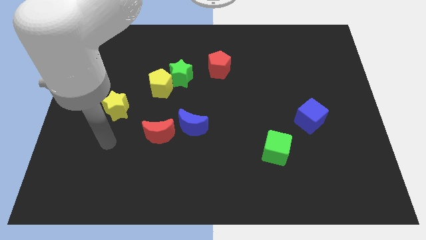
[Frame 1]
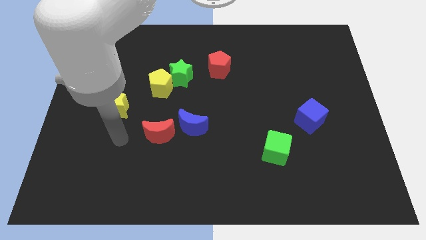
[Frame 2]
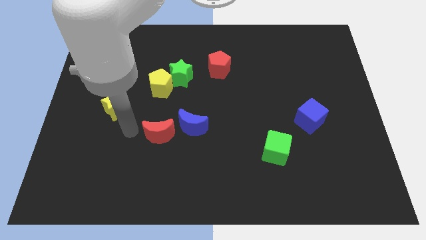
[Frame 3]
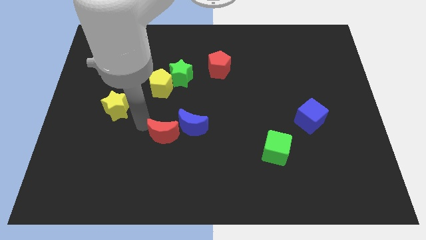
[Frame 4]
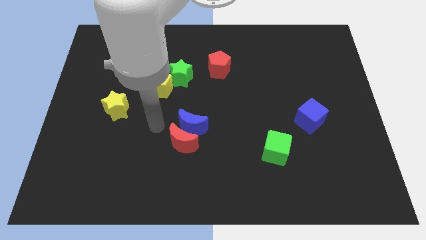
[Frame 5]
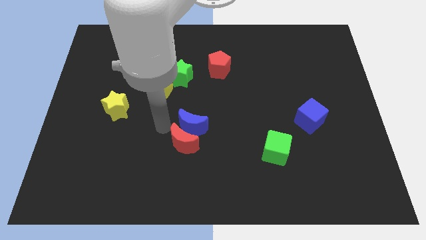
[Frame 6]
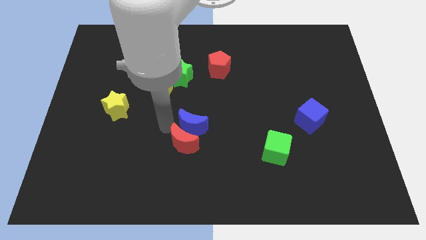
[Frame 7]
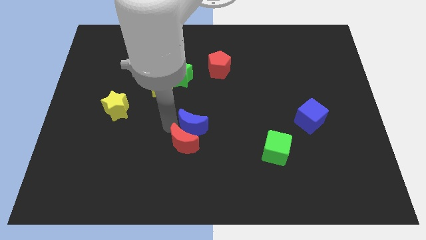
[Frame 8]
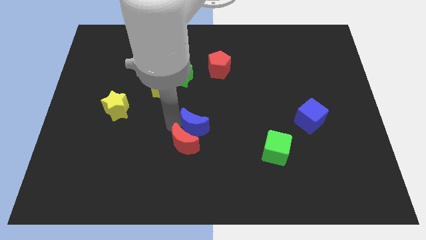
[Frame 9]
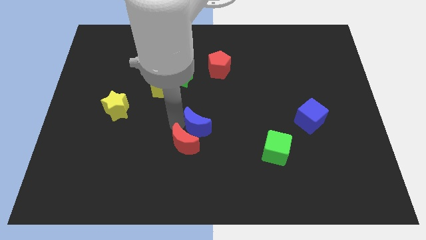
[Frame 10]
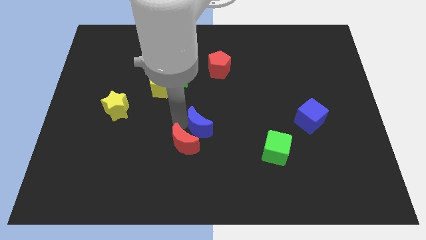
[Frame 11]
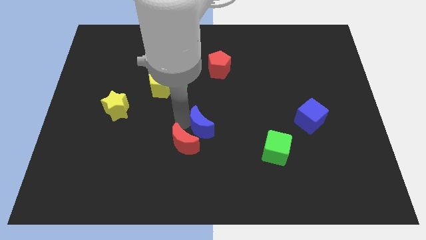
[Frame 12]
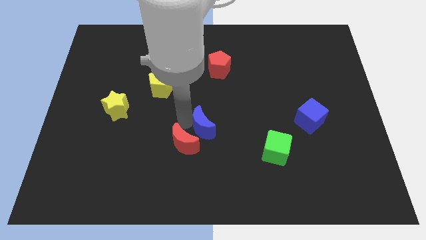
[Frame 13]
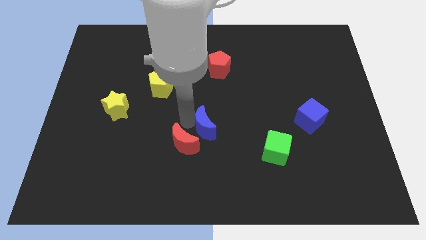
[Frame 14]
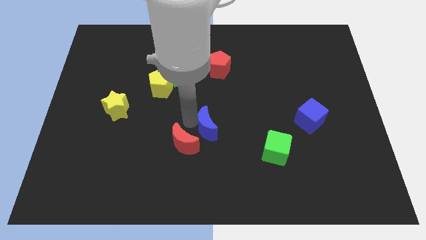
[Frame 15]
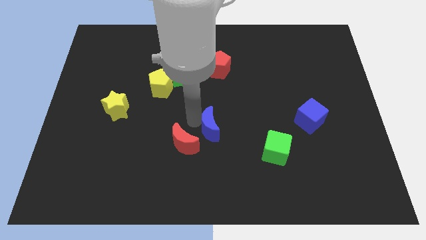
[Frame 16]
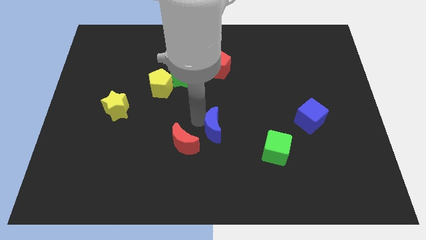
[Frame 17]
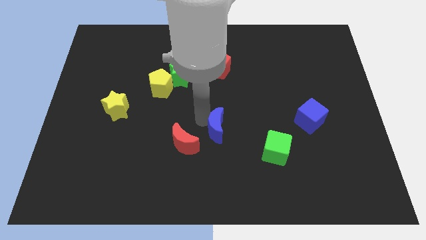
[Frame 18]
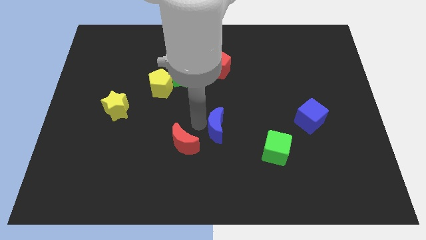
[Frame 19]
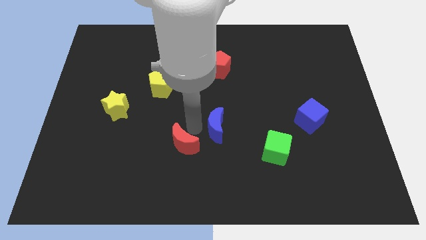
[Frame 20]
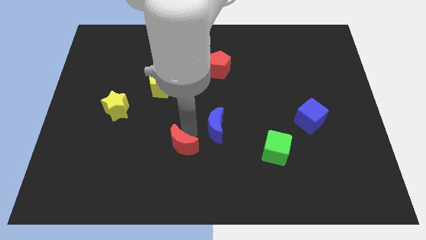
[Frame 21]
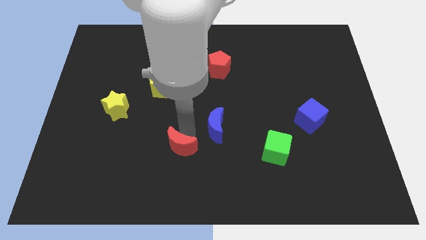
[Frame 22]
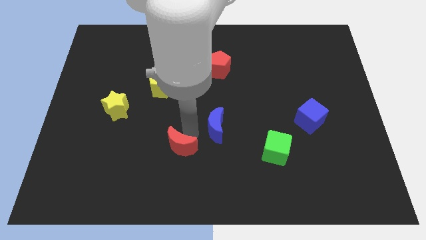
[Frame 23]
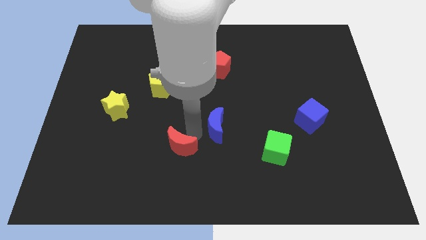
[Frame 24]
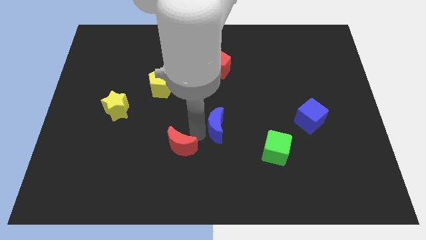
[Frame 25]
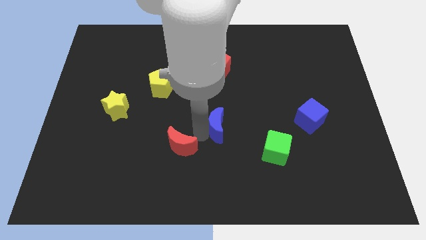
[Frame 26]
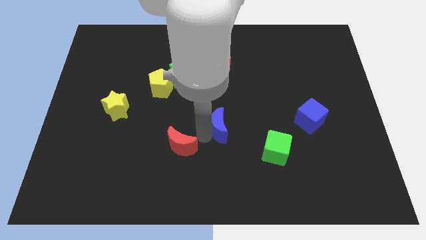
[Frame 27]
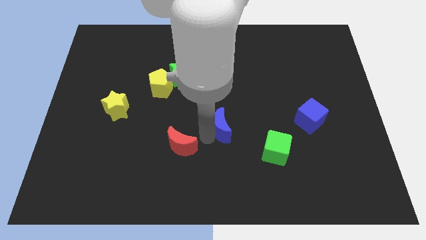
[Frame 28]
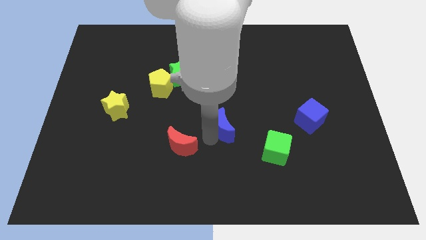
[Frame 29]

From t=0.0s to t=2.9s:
move the blue moon a little right

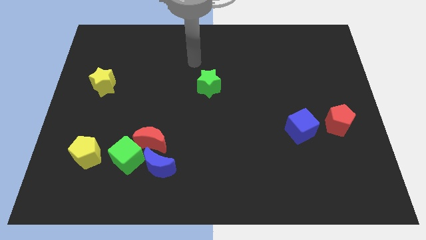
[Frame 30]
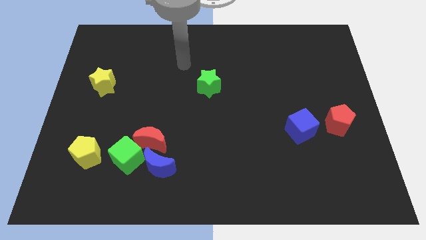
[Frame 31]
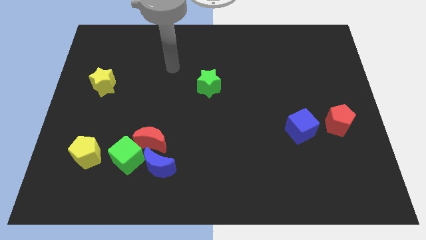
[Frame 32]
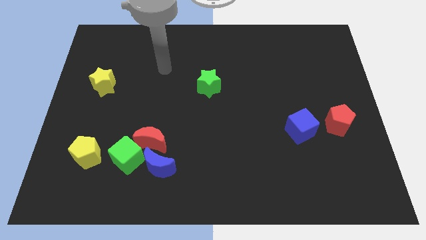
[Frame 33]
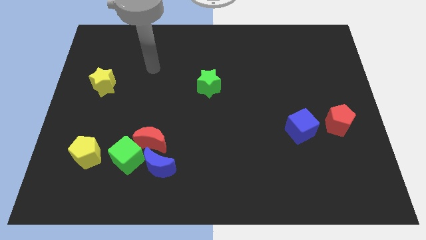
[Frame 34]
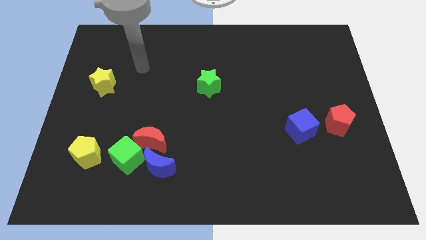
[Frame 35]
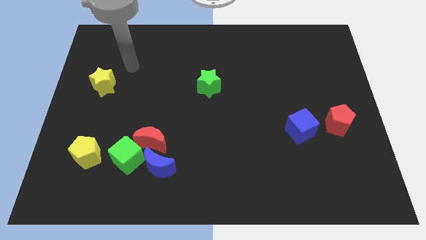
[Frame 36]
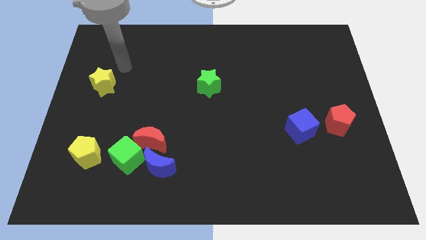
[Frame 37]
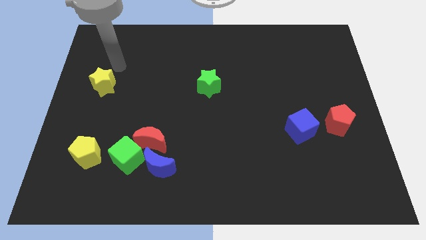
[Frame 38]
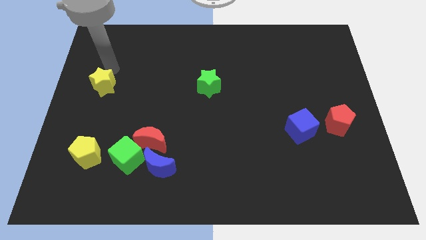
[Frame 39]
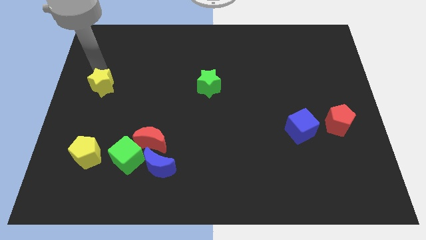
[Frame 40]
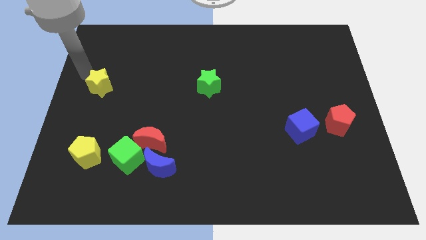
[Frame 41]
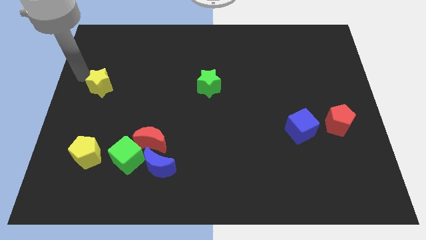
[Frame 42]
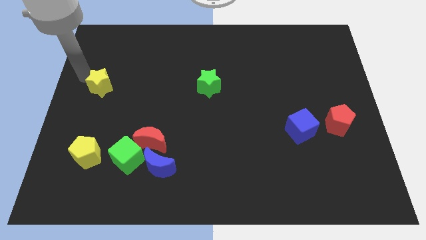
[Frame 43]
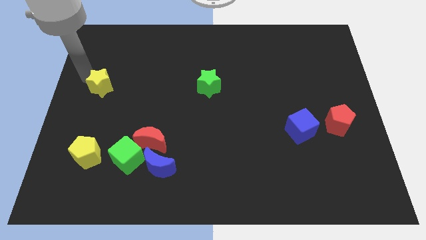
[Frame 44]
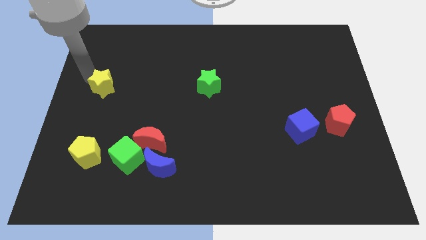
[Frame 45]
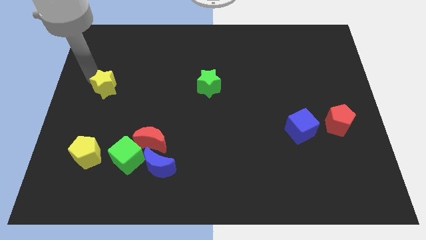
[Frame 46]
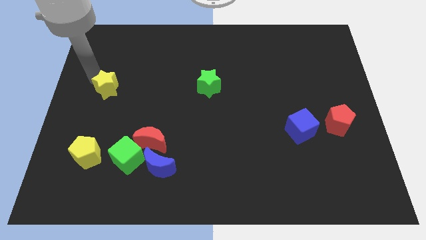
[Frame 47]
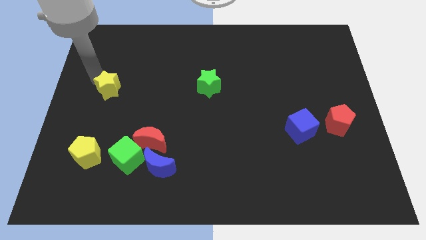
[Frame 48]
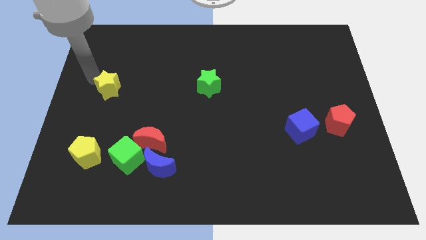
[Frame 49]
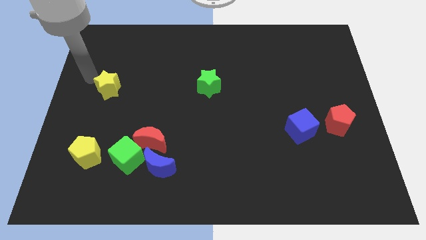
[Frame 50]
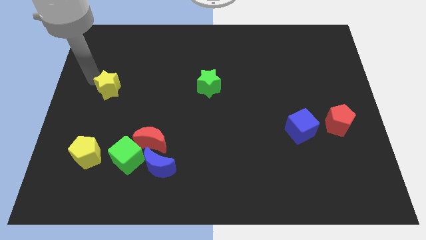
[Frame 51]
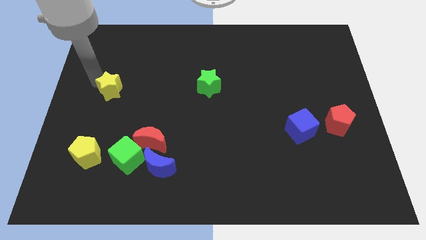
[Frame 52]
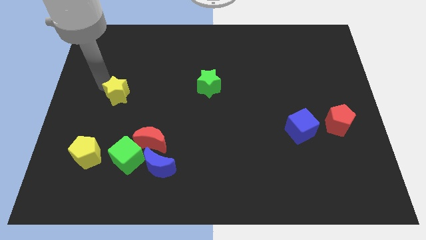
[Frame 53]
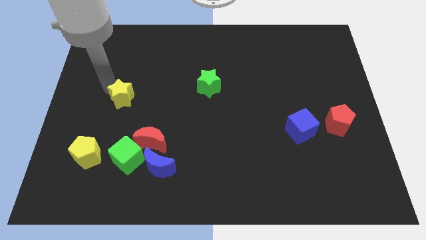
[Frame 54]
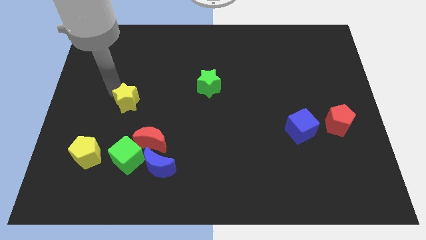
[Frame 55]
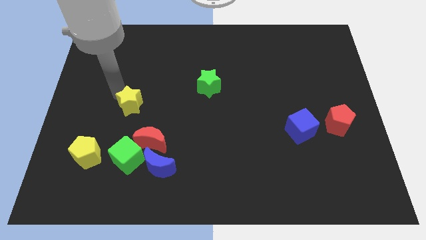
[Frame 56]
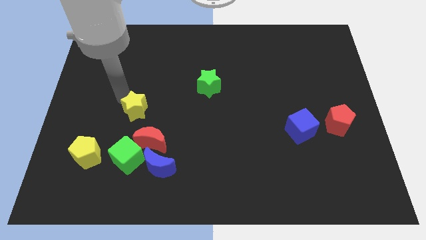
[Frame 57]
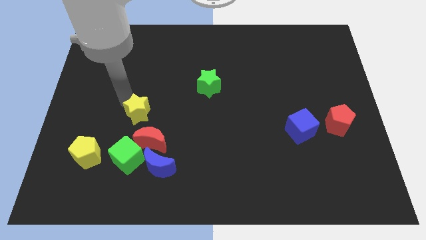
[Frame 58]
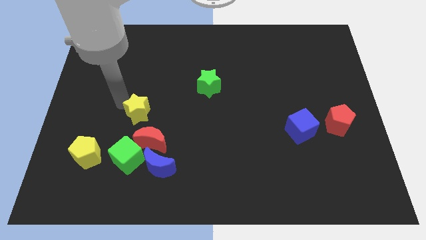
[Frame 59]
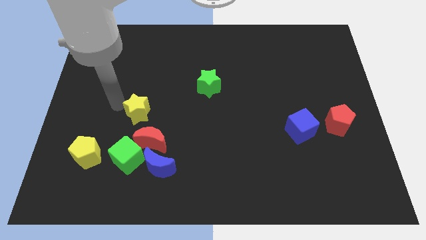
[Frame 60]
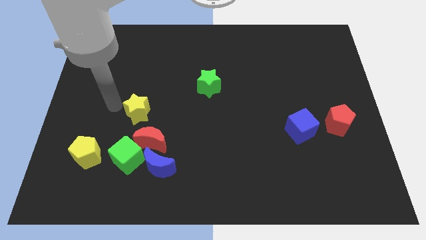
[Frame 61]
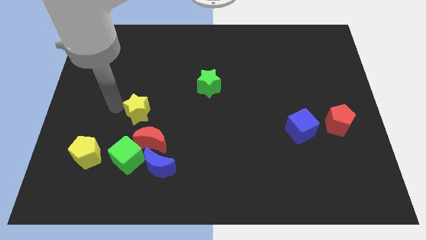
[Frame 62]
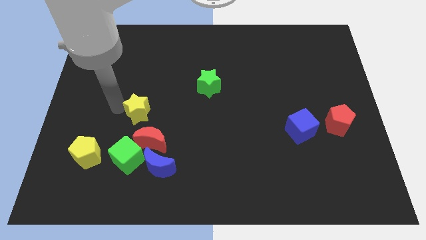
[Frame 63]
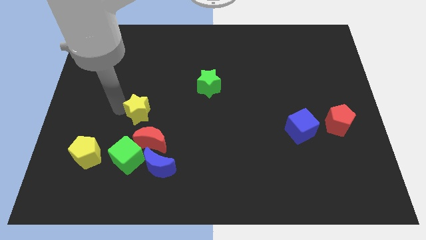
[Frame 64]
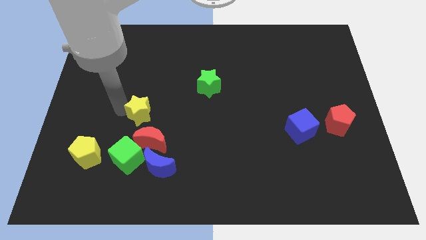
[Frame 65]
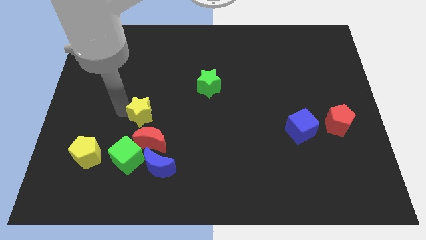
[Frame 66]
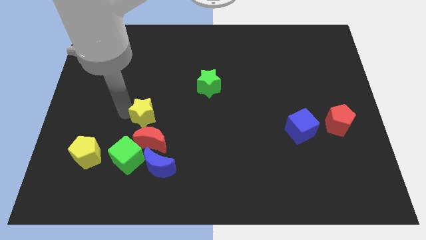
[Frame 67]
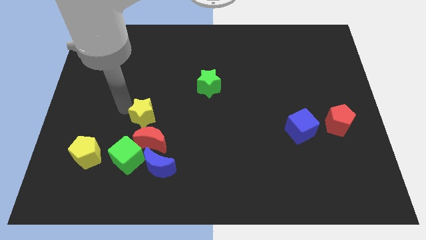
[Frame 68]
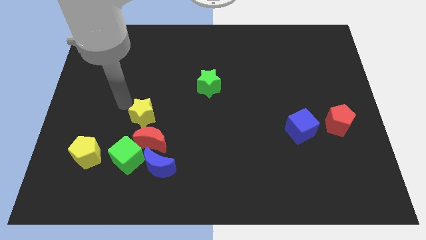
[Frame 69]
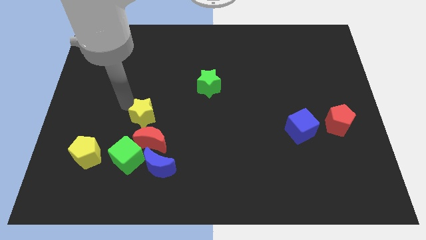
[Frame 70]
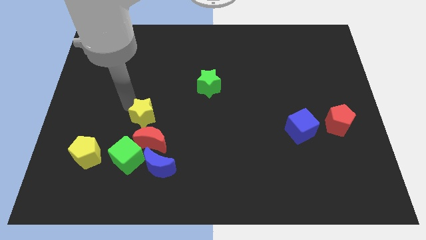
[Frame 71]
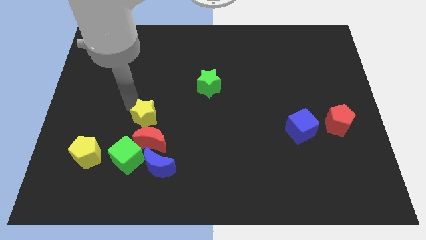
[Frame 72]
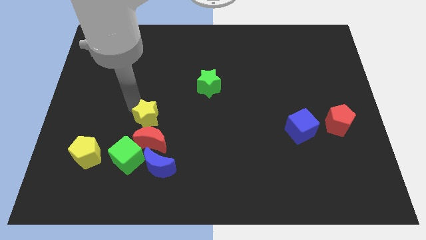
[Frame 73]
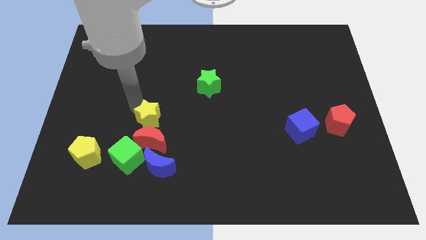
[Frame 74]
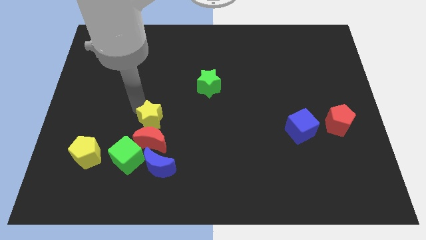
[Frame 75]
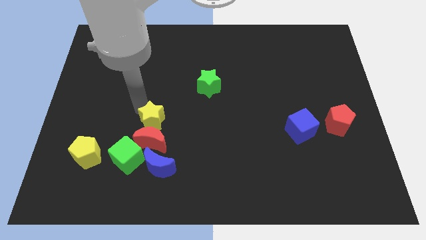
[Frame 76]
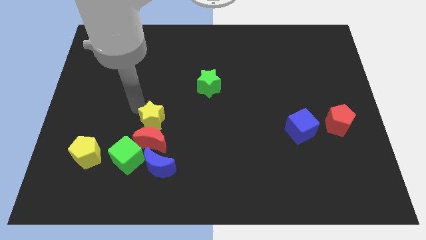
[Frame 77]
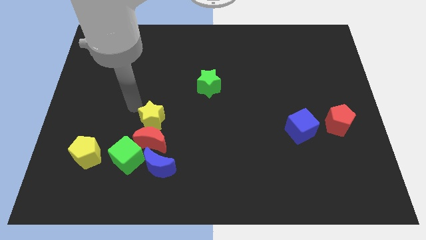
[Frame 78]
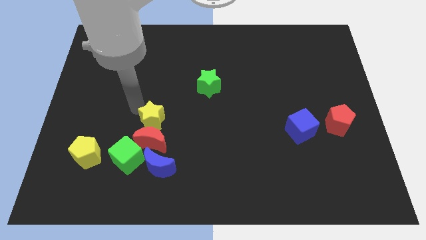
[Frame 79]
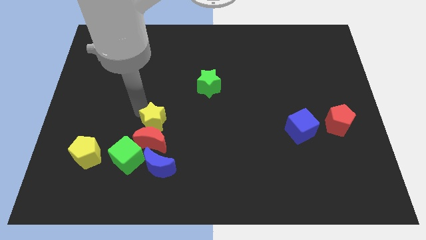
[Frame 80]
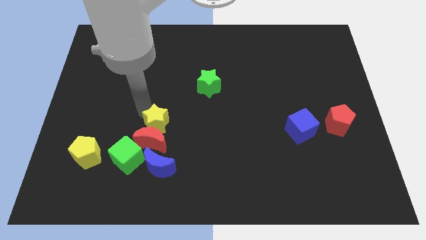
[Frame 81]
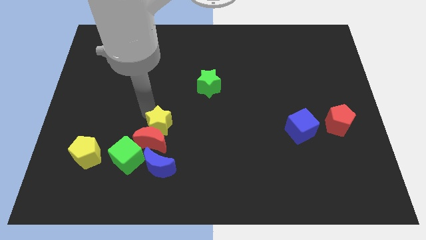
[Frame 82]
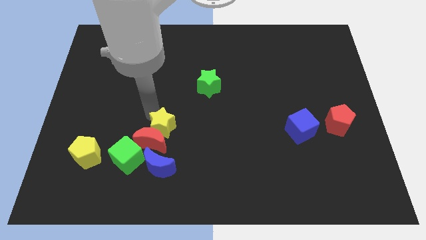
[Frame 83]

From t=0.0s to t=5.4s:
push the yellow star diagonally down and right
